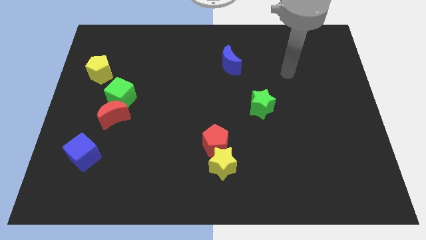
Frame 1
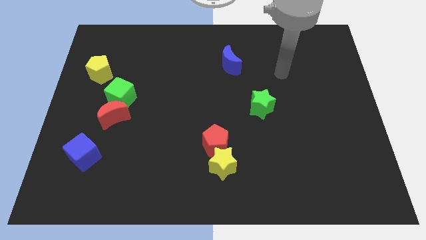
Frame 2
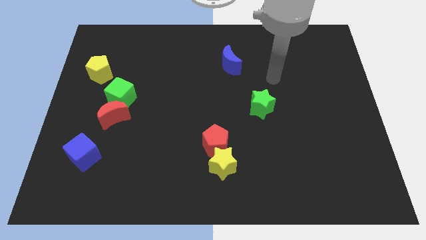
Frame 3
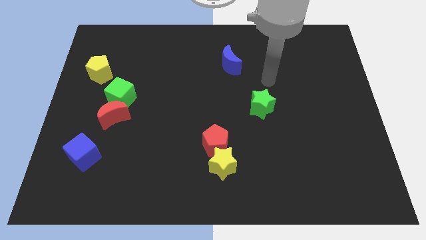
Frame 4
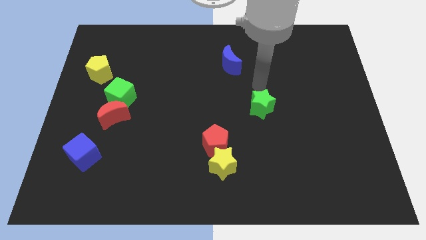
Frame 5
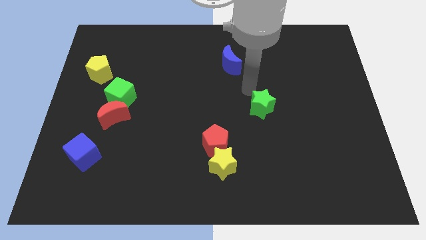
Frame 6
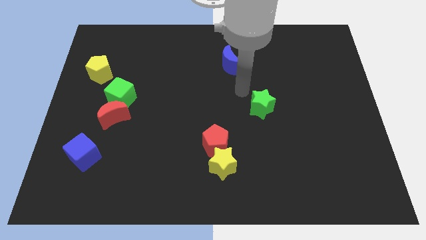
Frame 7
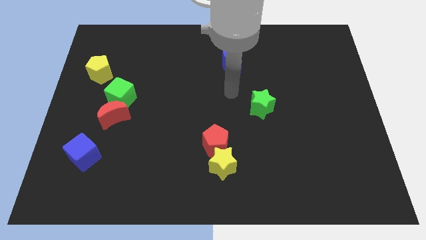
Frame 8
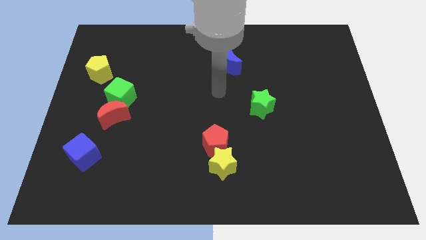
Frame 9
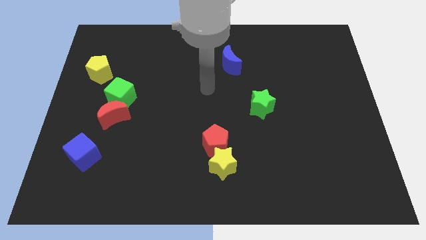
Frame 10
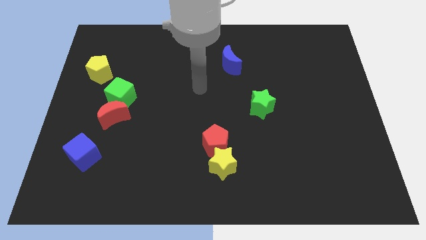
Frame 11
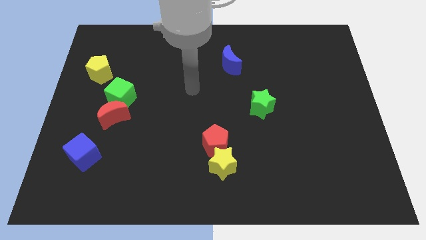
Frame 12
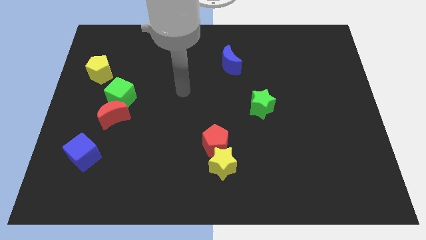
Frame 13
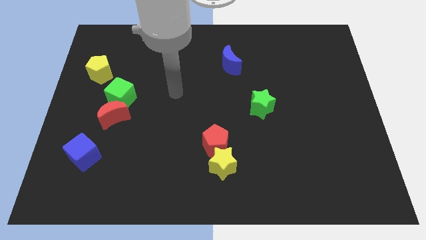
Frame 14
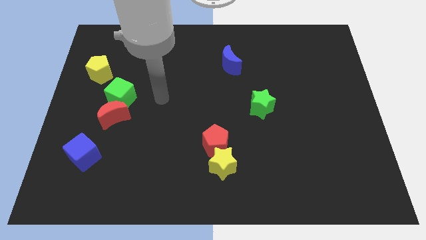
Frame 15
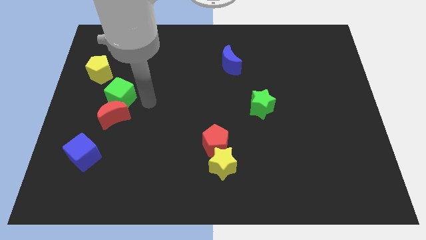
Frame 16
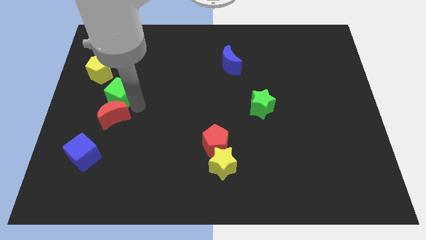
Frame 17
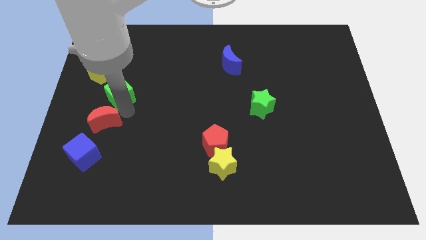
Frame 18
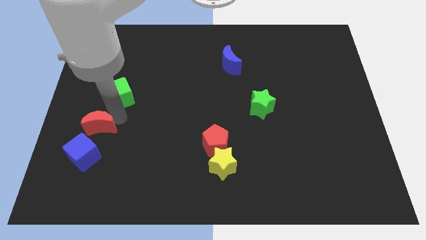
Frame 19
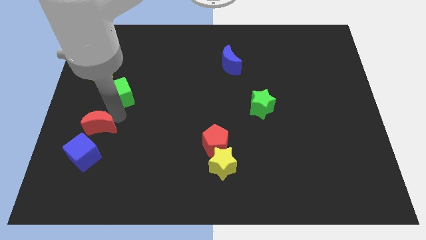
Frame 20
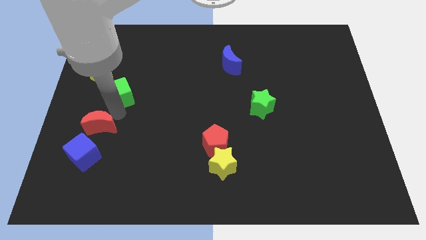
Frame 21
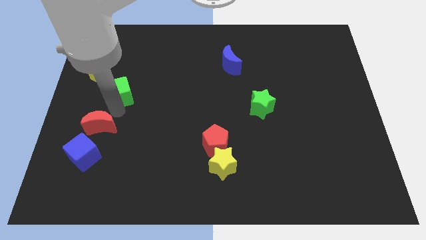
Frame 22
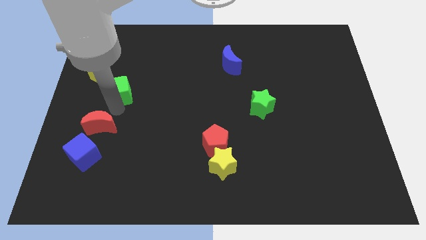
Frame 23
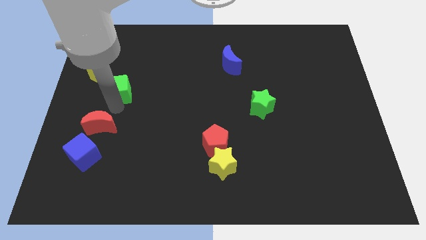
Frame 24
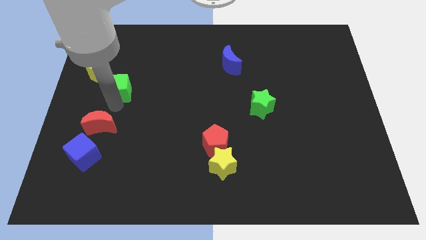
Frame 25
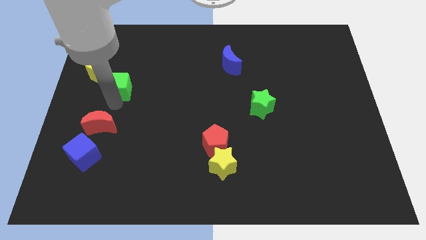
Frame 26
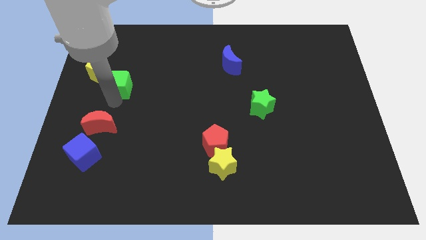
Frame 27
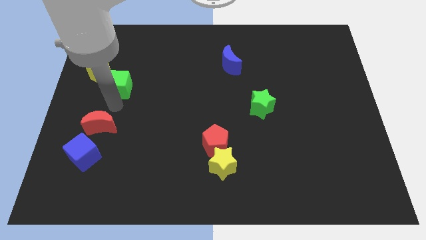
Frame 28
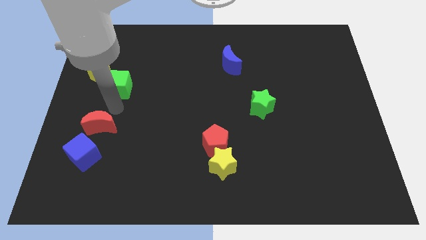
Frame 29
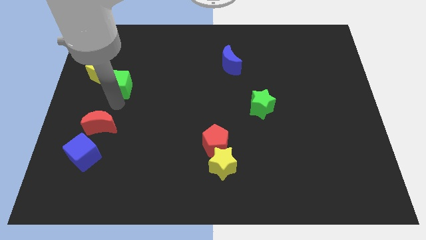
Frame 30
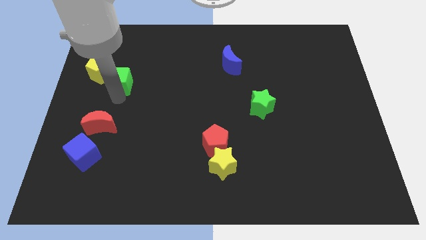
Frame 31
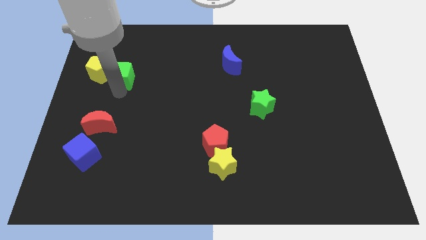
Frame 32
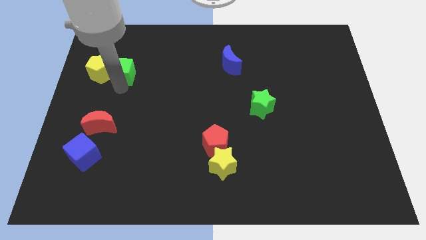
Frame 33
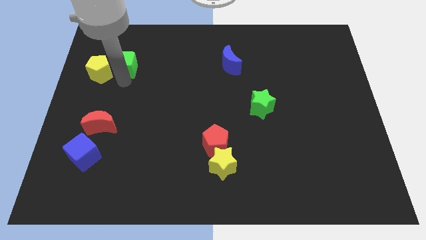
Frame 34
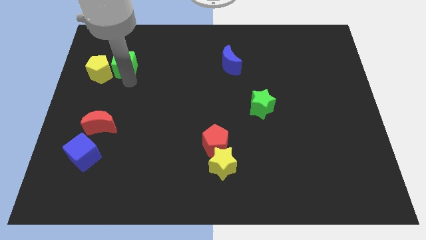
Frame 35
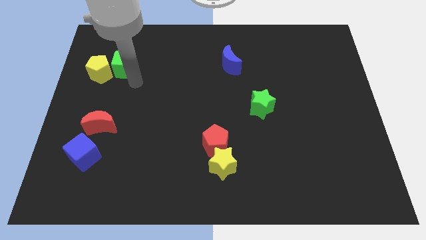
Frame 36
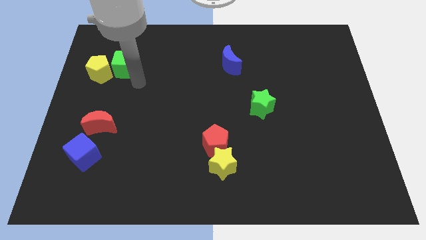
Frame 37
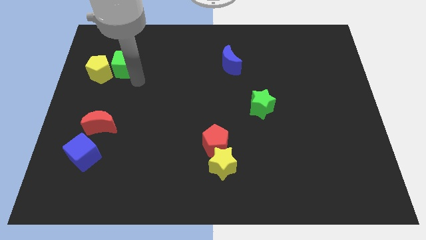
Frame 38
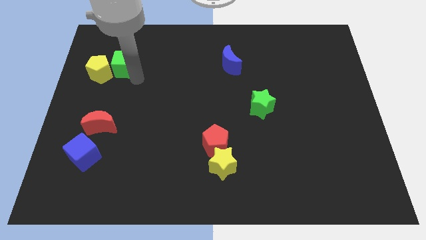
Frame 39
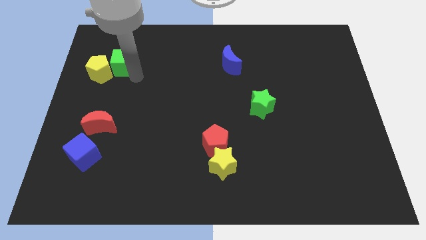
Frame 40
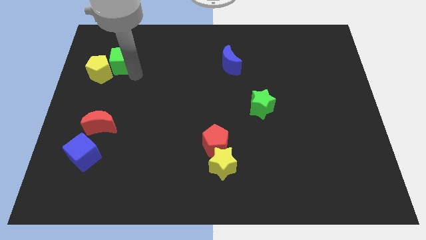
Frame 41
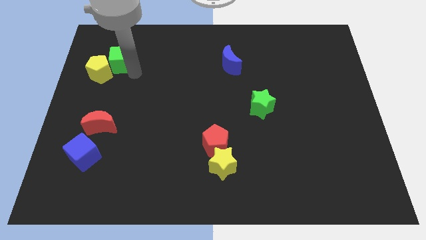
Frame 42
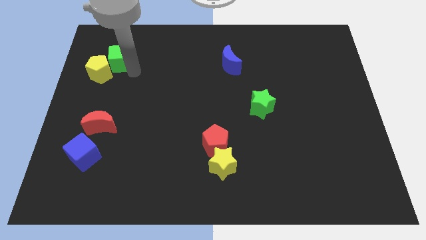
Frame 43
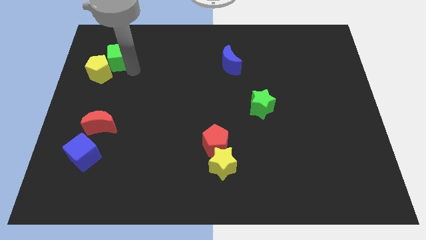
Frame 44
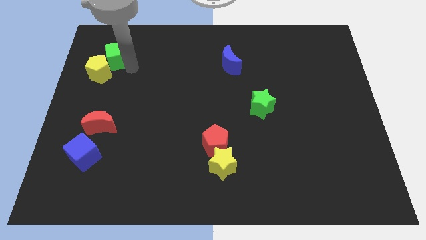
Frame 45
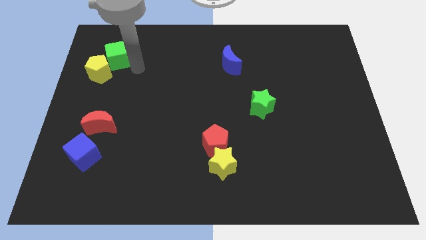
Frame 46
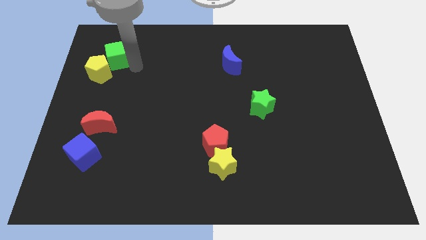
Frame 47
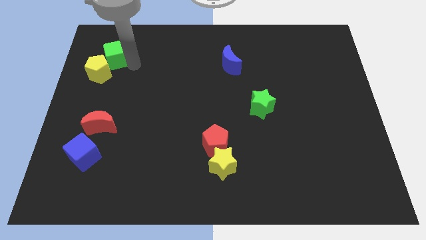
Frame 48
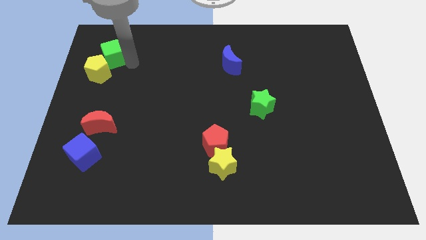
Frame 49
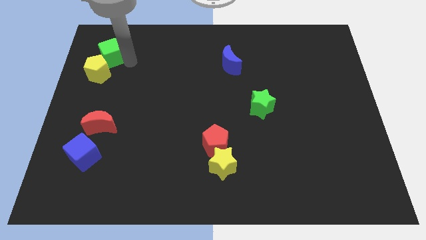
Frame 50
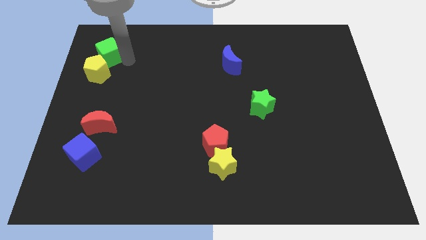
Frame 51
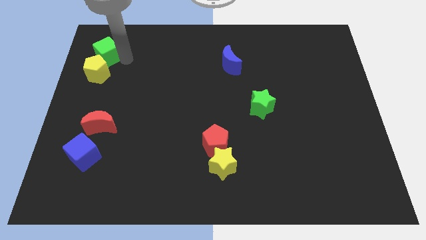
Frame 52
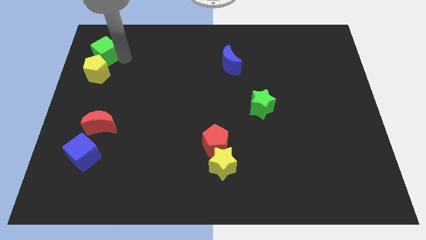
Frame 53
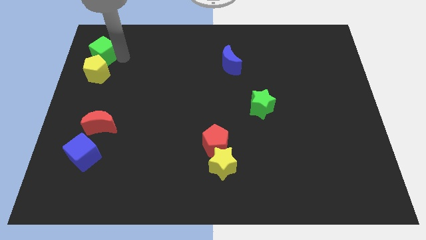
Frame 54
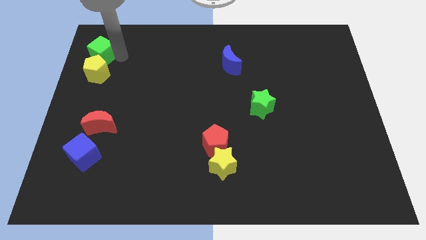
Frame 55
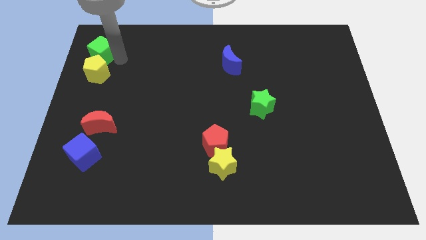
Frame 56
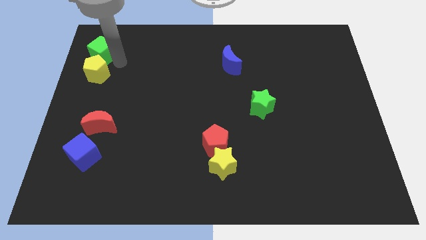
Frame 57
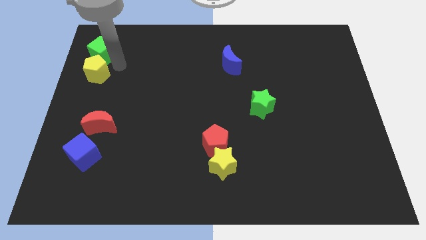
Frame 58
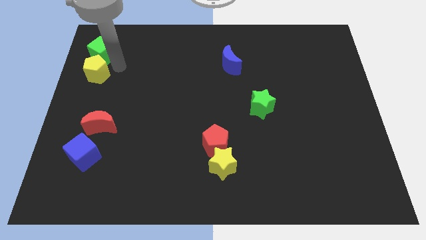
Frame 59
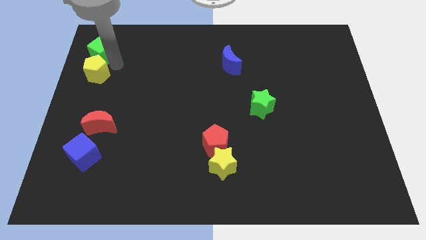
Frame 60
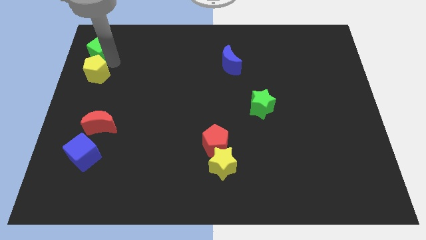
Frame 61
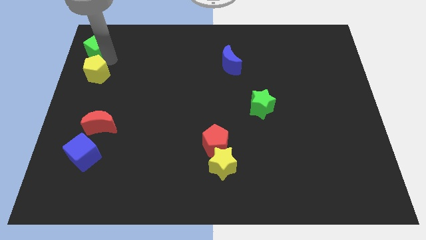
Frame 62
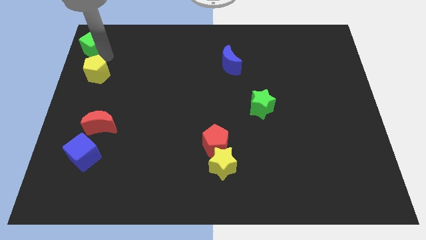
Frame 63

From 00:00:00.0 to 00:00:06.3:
push the green cube to the top left of the board
